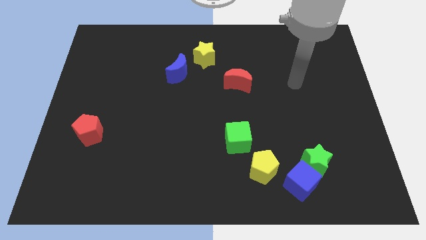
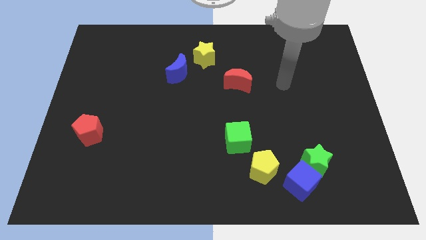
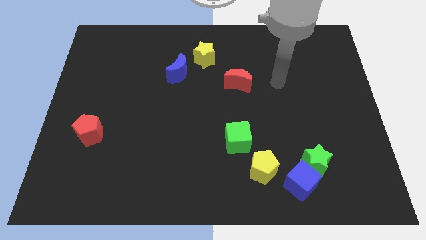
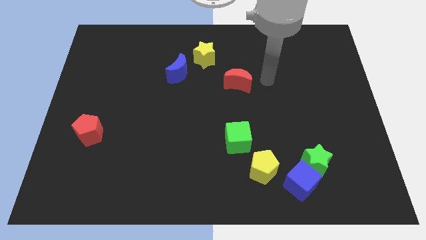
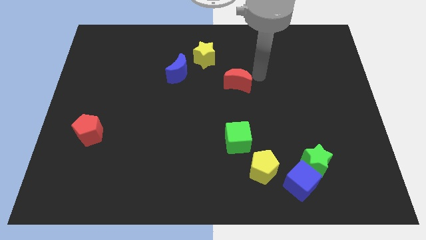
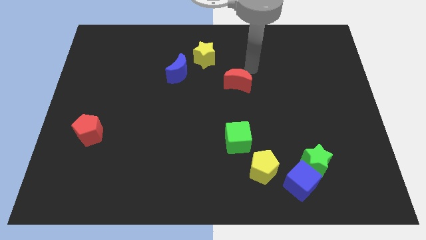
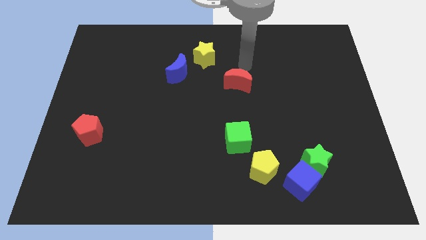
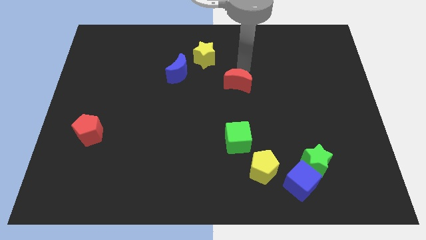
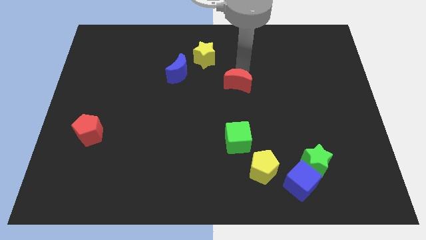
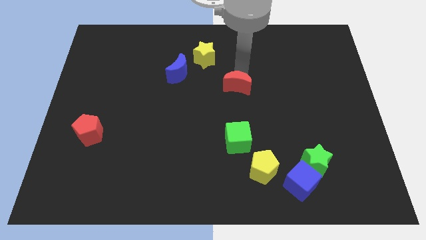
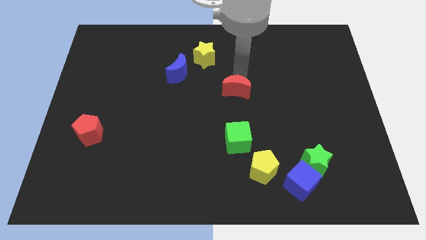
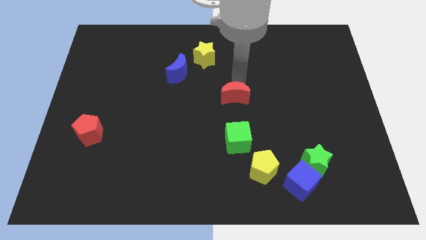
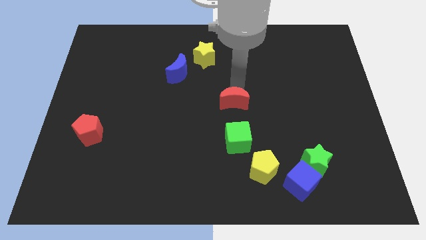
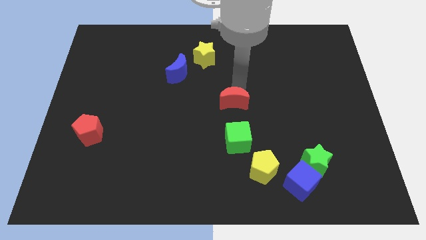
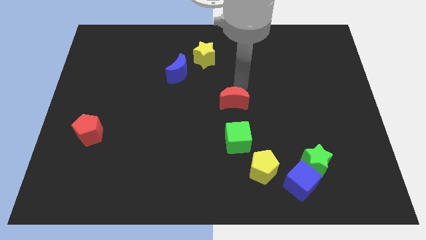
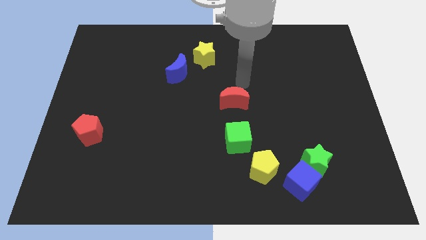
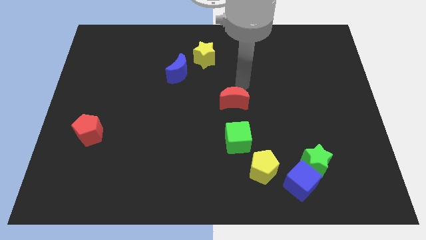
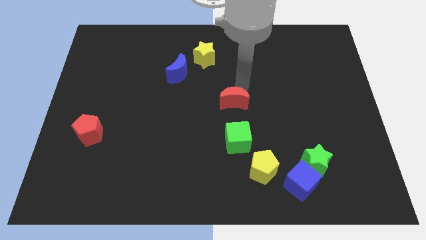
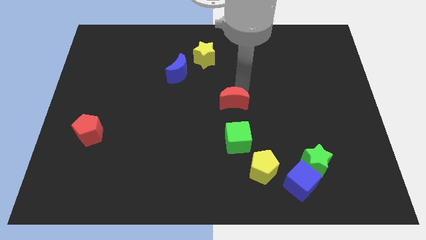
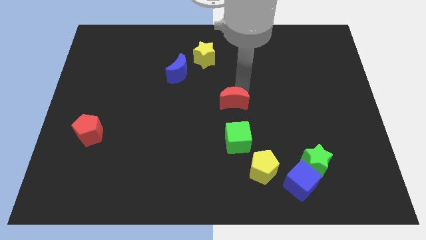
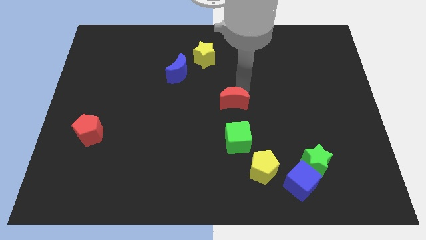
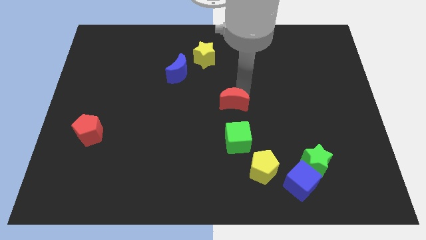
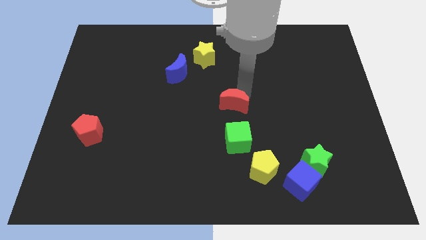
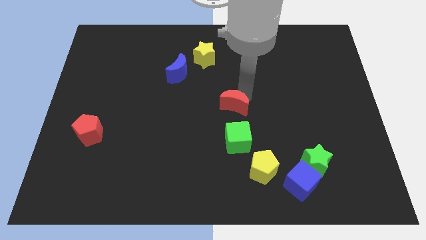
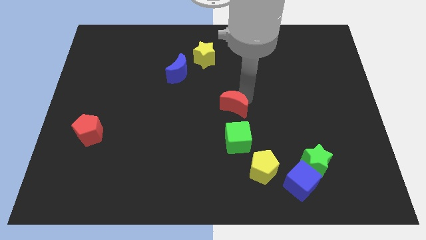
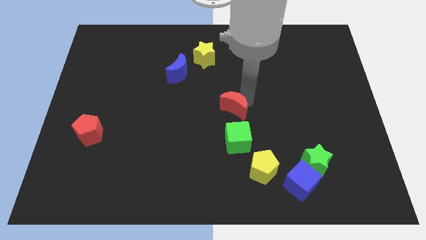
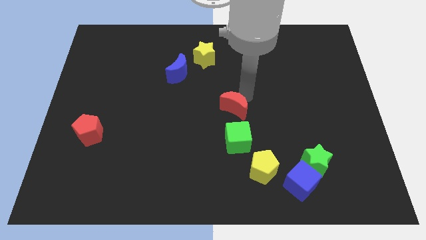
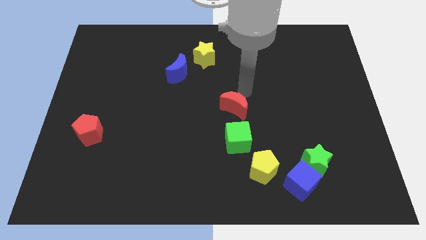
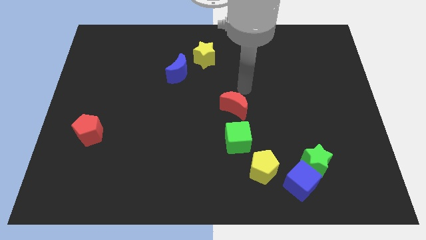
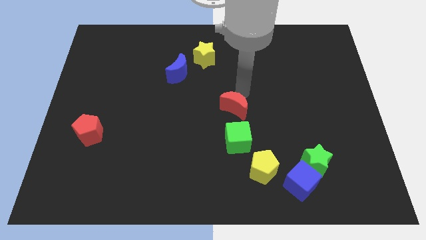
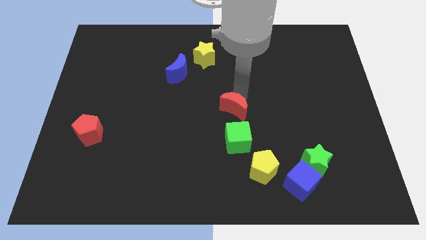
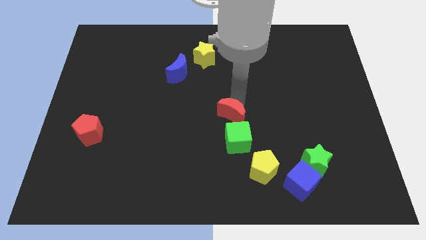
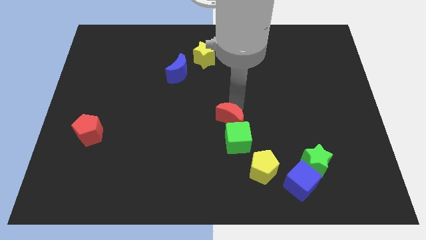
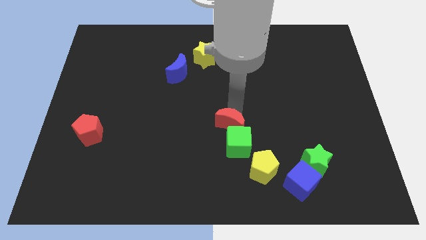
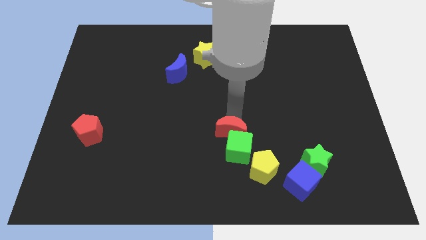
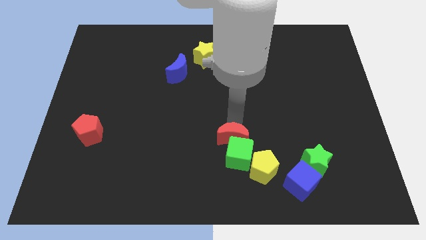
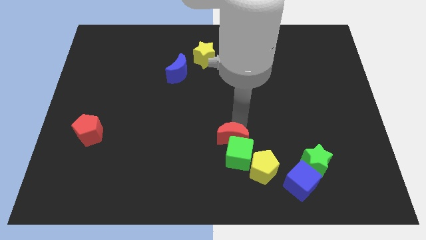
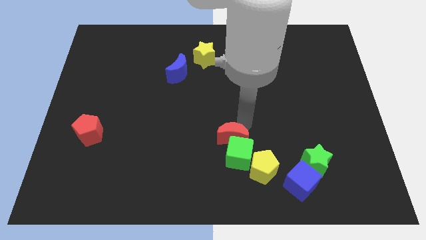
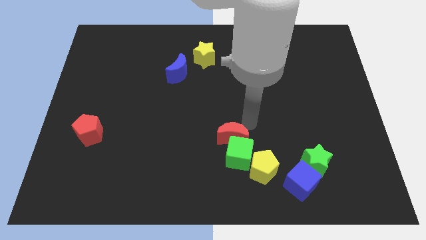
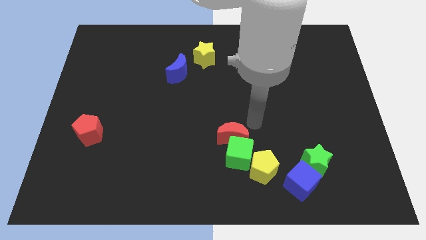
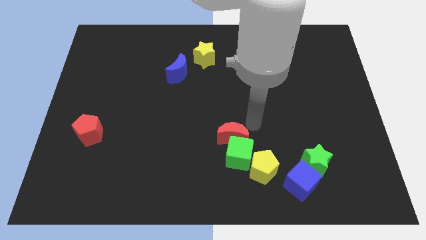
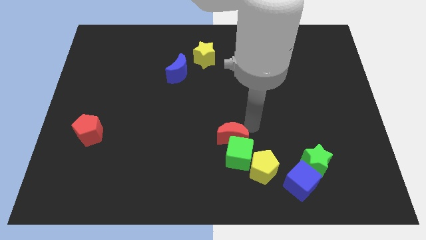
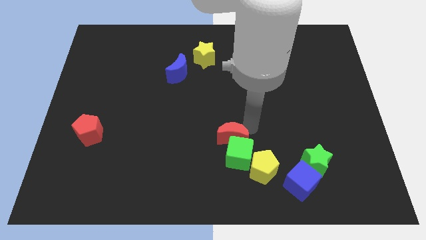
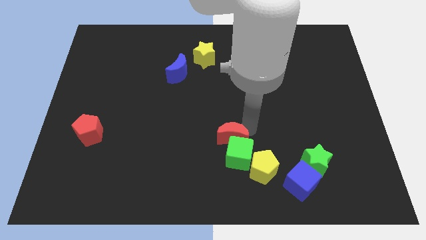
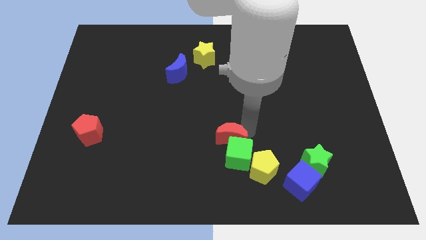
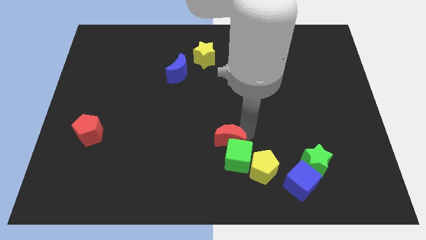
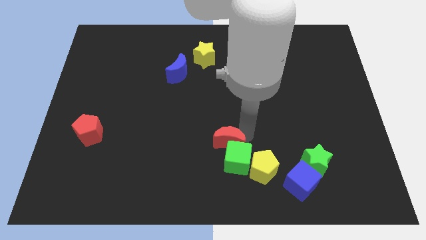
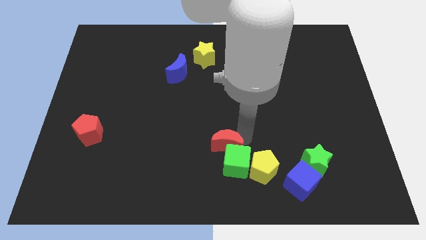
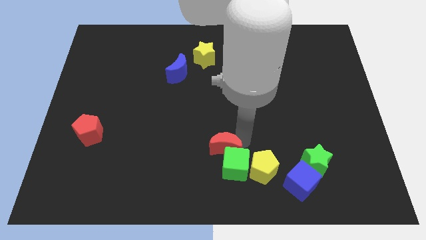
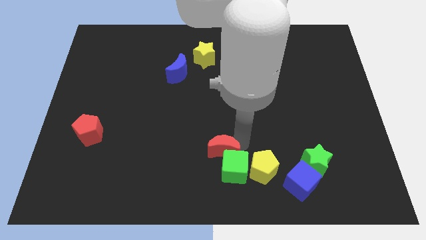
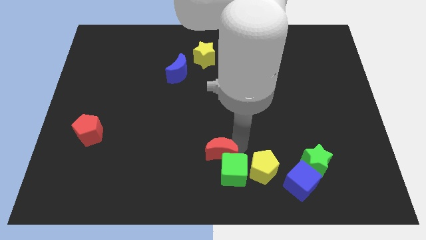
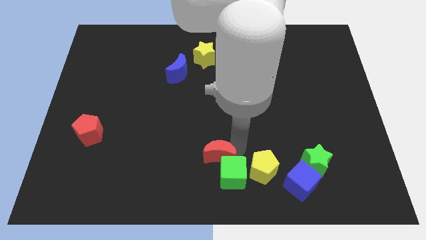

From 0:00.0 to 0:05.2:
move the red moon to the bottom

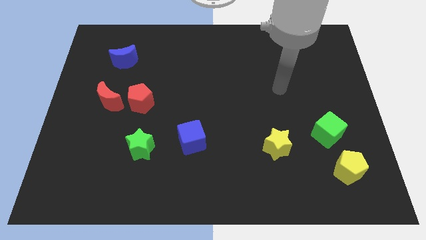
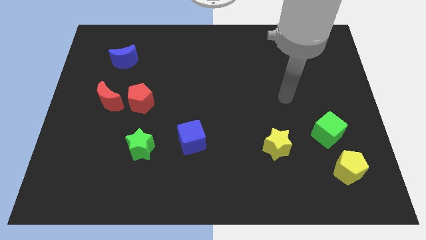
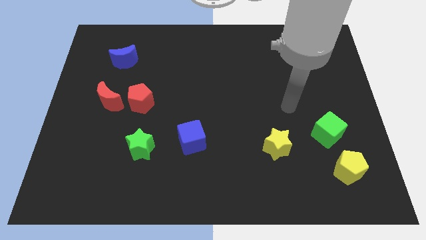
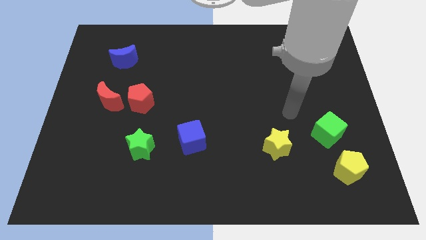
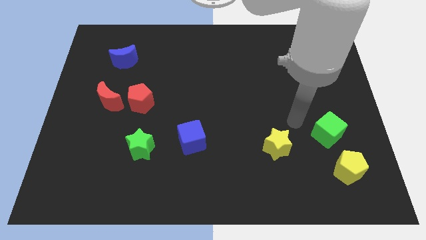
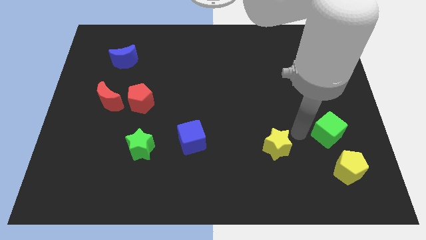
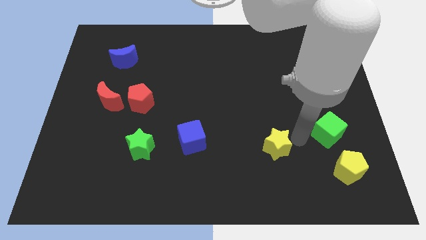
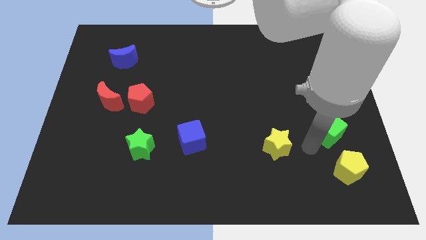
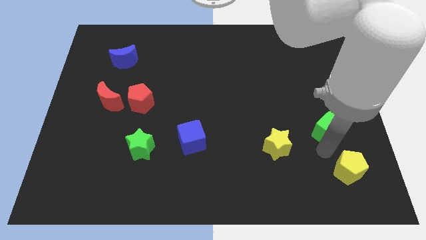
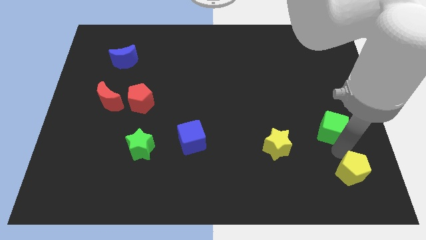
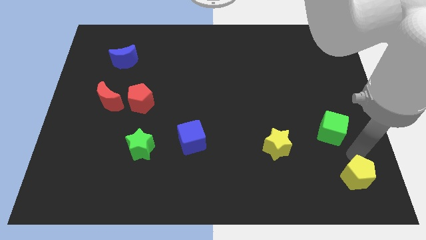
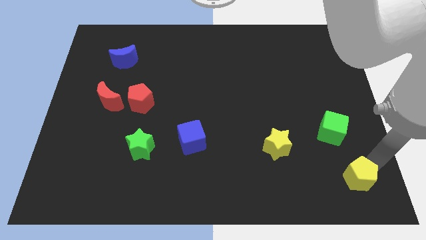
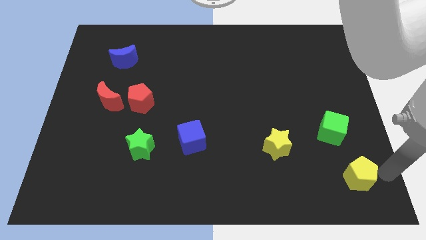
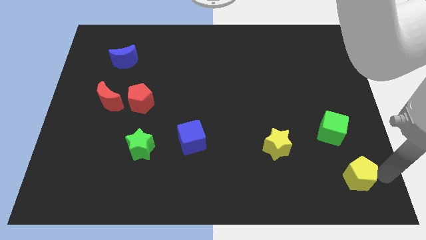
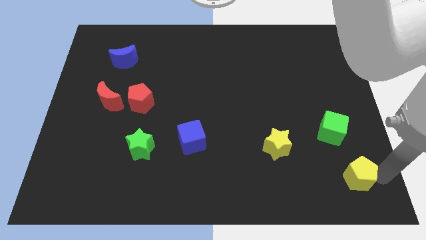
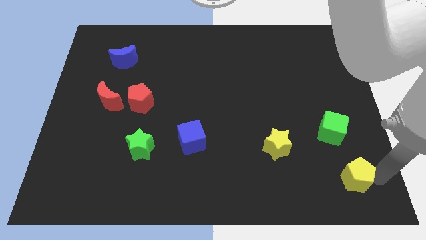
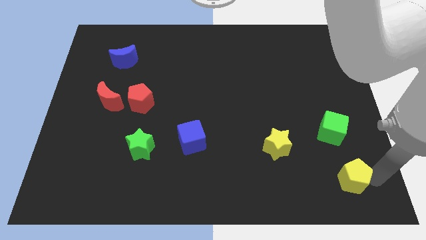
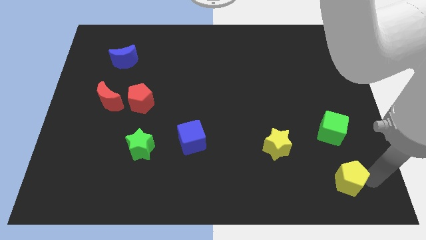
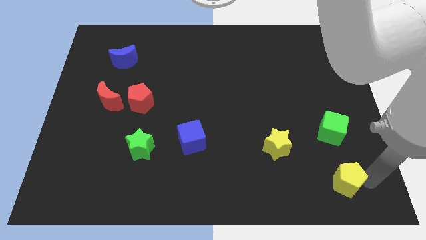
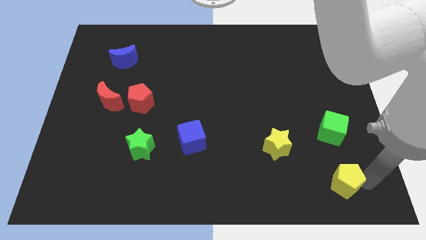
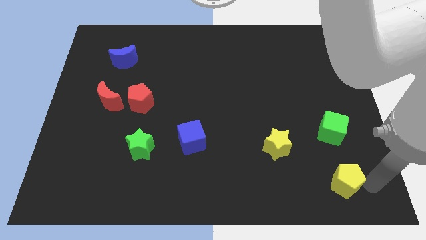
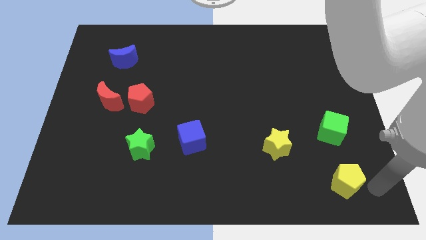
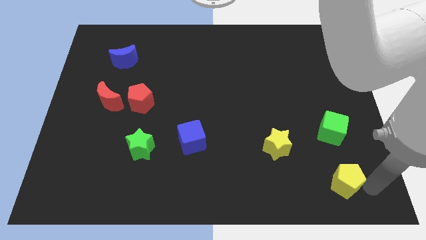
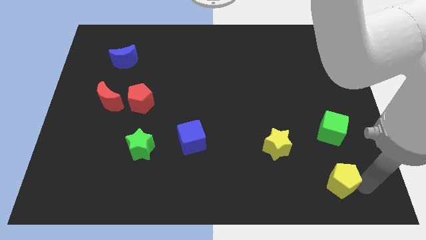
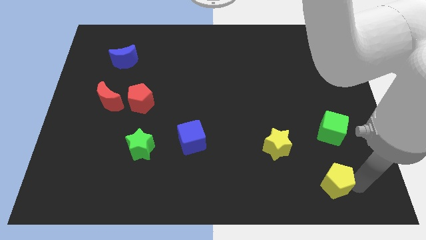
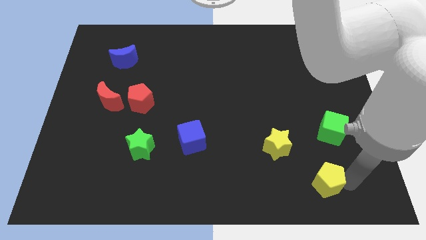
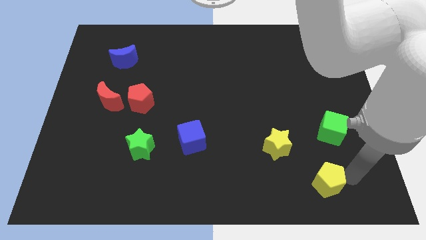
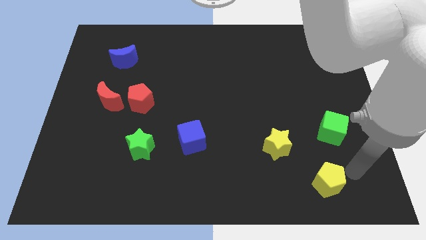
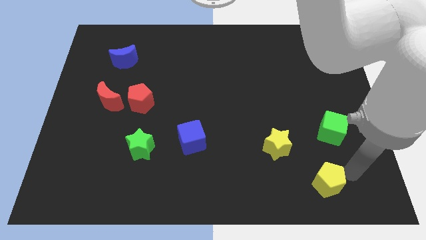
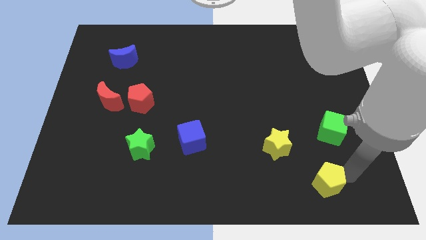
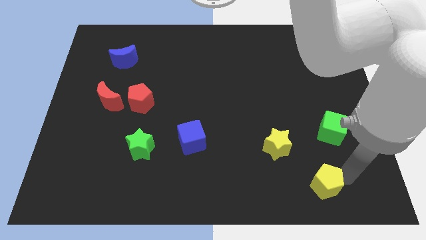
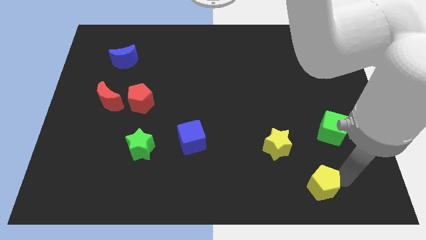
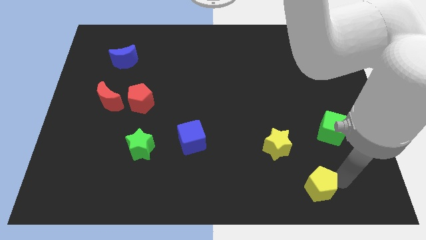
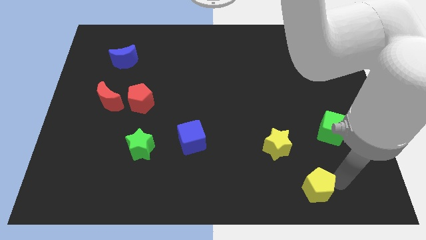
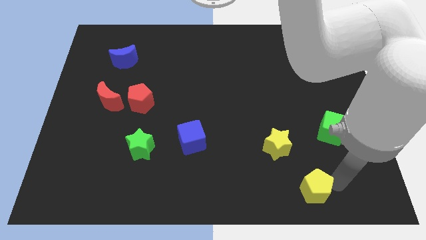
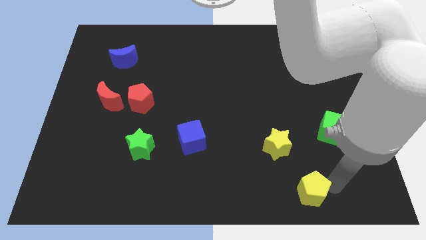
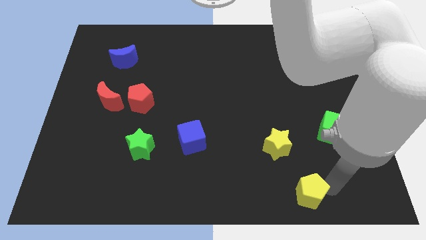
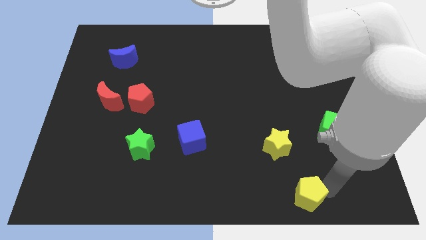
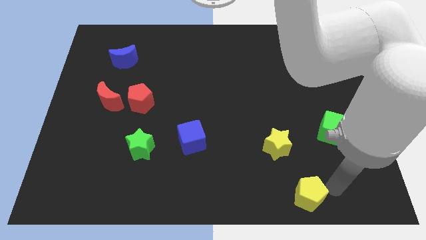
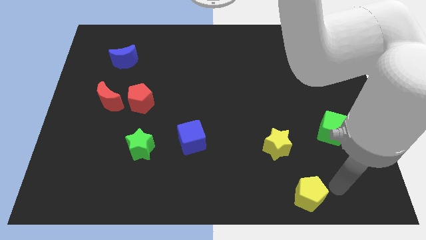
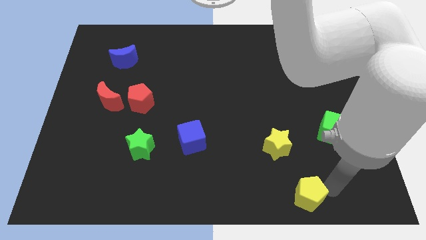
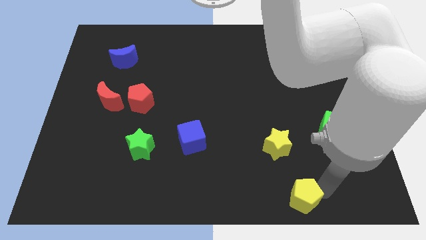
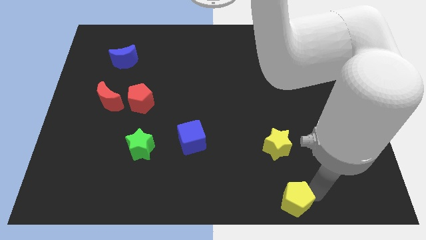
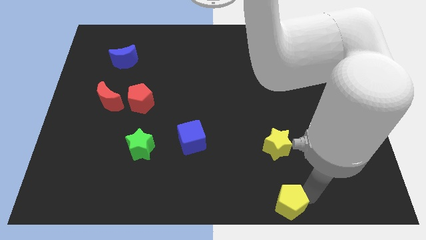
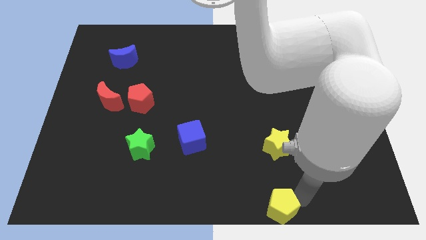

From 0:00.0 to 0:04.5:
move the yellow pentagon to the bottom side
